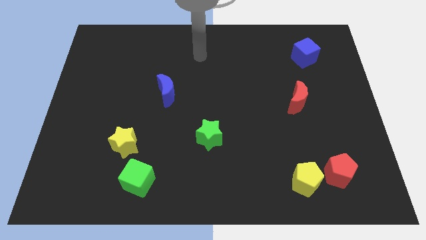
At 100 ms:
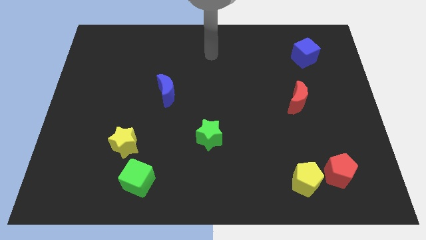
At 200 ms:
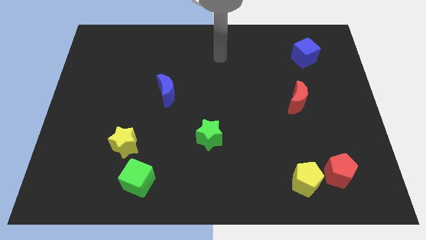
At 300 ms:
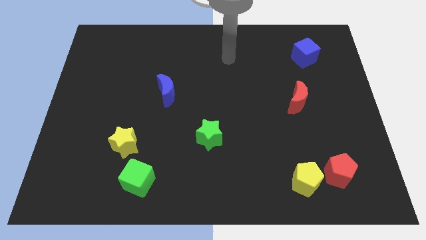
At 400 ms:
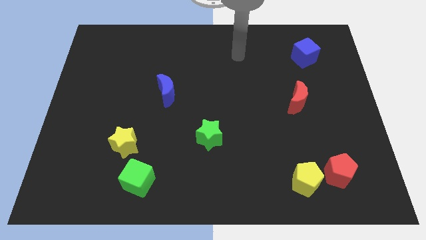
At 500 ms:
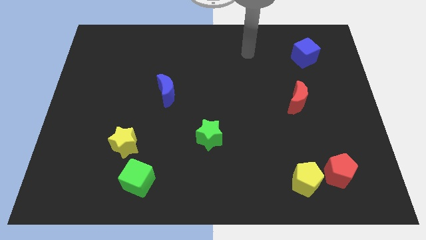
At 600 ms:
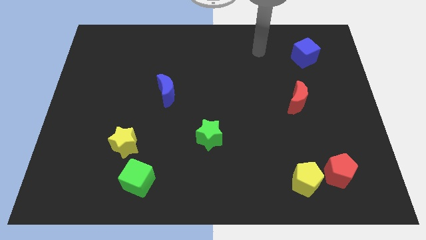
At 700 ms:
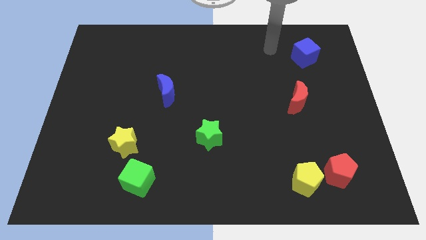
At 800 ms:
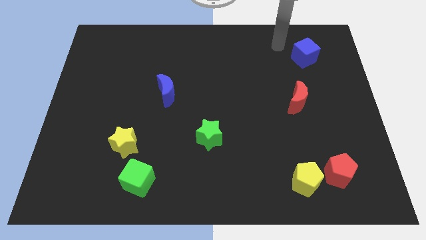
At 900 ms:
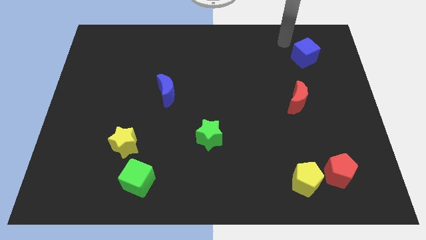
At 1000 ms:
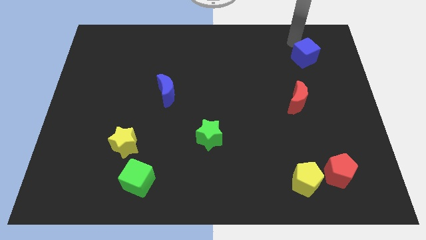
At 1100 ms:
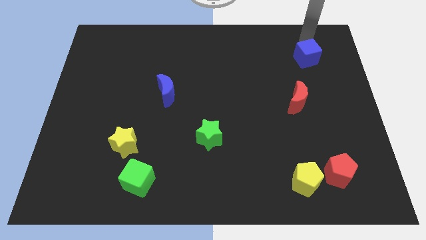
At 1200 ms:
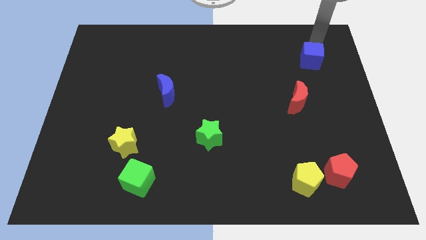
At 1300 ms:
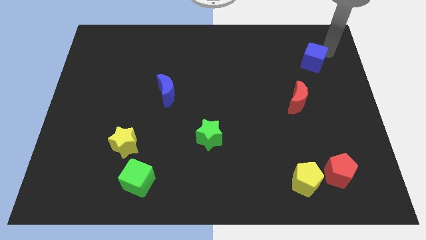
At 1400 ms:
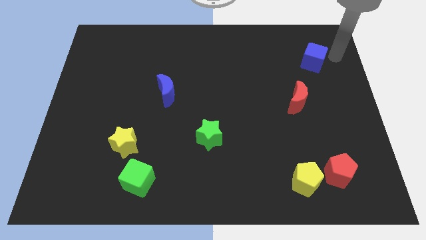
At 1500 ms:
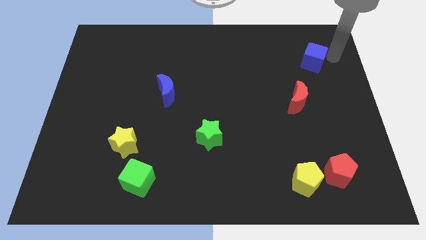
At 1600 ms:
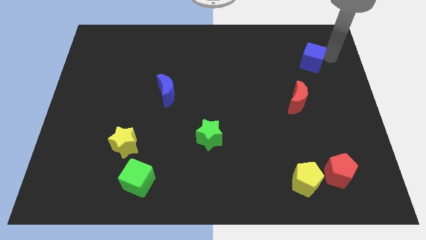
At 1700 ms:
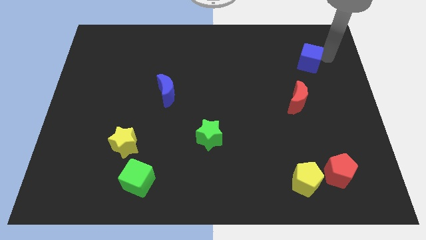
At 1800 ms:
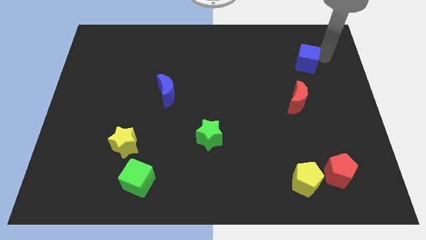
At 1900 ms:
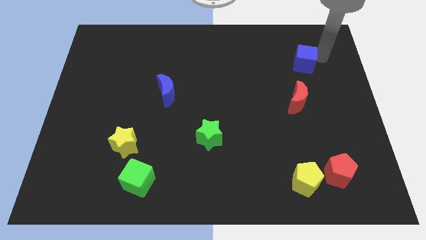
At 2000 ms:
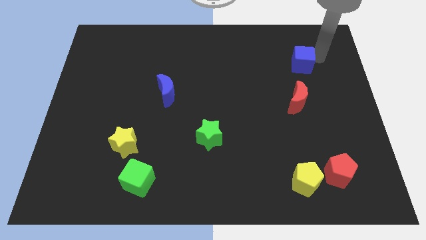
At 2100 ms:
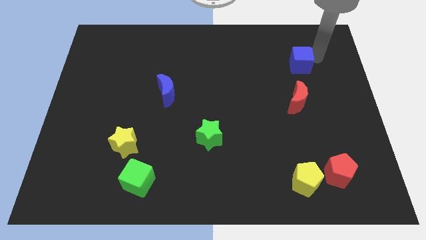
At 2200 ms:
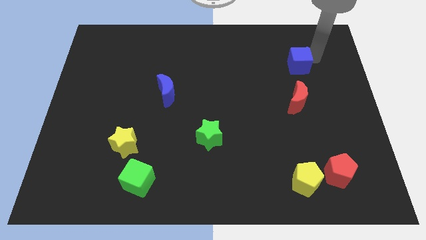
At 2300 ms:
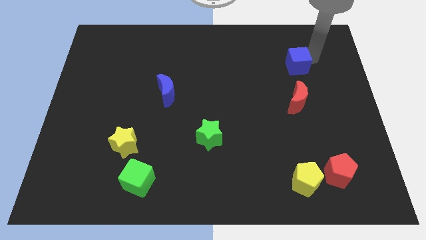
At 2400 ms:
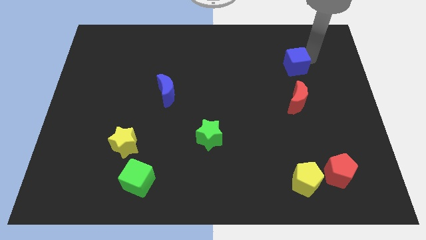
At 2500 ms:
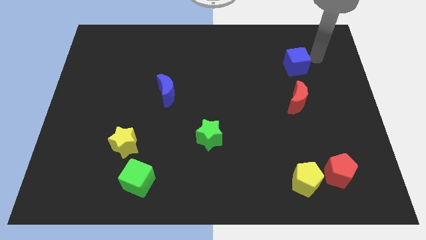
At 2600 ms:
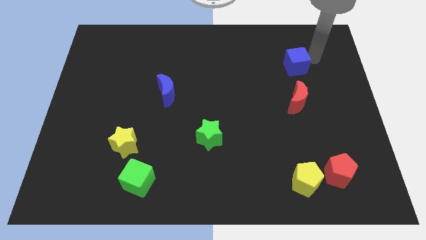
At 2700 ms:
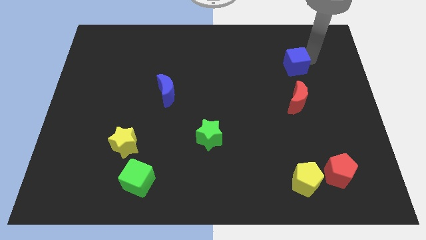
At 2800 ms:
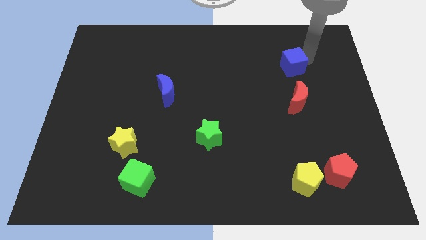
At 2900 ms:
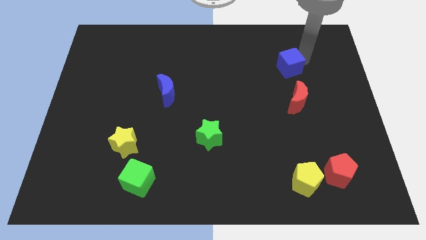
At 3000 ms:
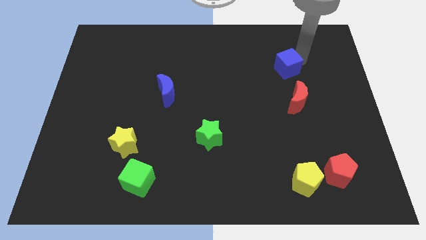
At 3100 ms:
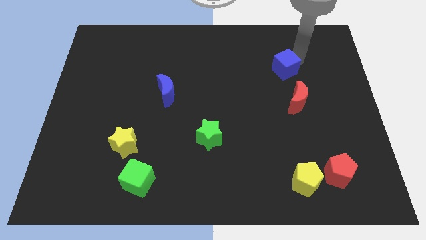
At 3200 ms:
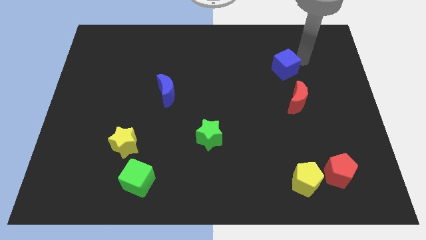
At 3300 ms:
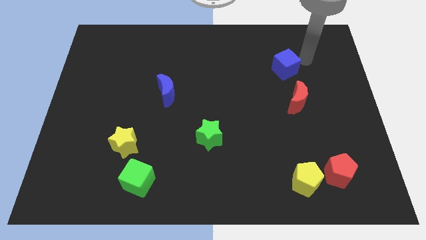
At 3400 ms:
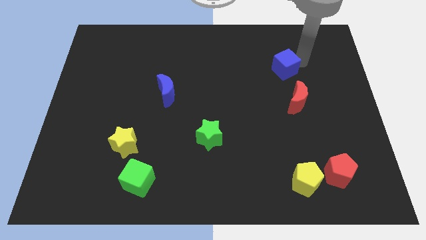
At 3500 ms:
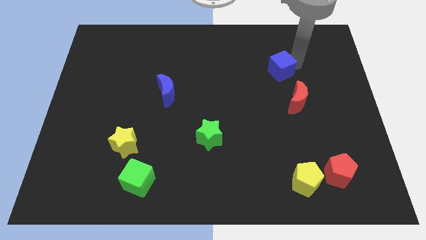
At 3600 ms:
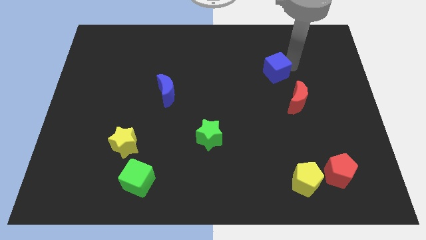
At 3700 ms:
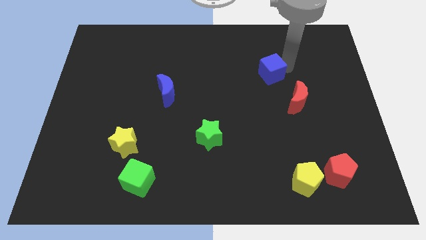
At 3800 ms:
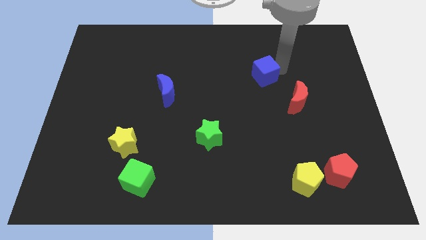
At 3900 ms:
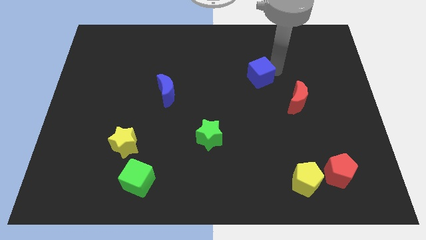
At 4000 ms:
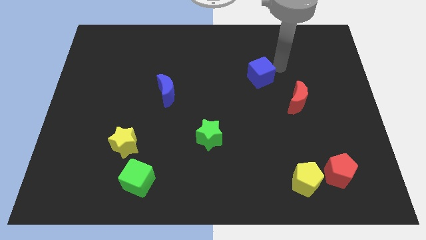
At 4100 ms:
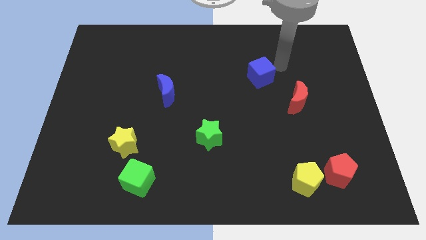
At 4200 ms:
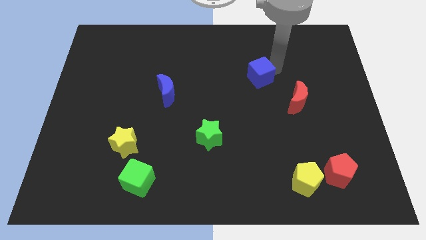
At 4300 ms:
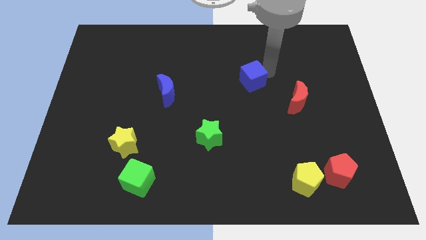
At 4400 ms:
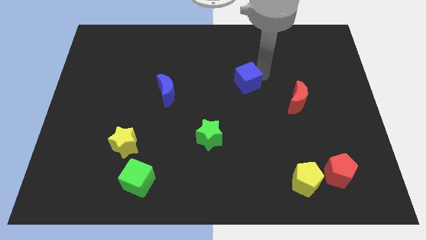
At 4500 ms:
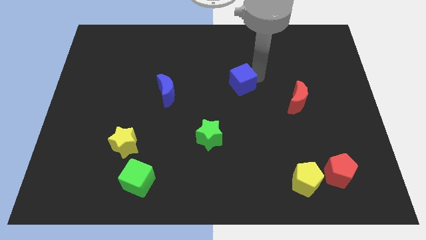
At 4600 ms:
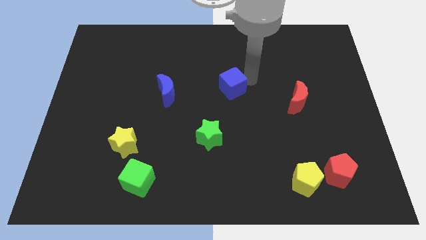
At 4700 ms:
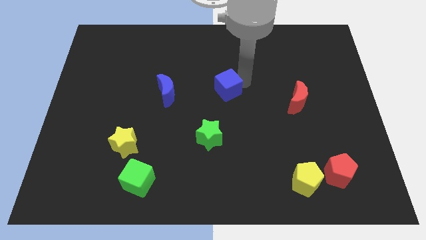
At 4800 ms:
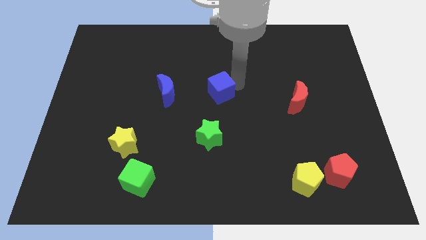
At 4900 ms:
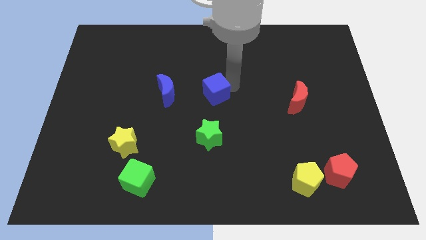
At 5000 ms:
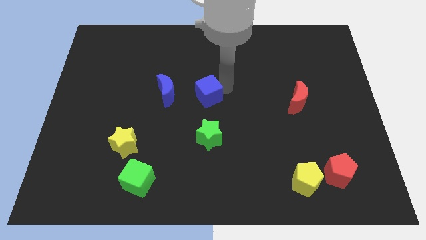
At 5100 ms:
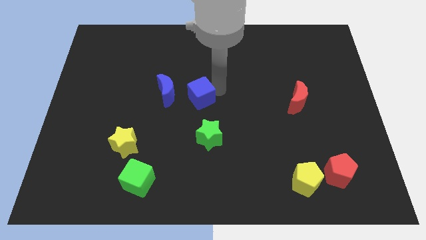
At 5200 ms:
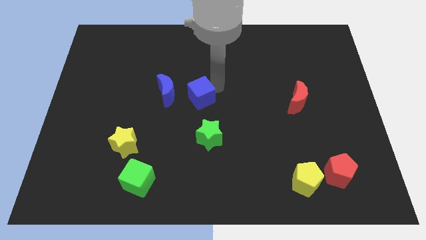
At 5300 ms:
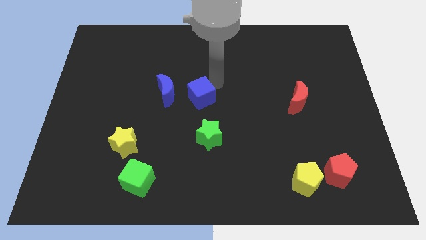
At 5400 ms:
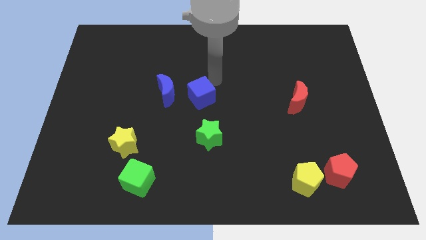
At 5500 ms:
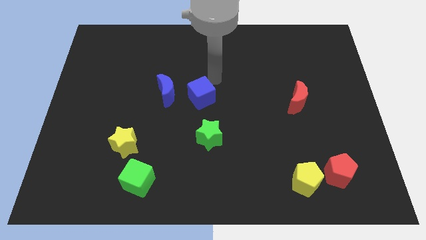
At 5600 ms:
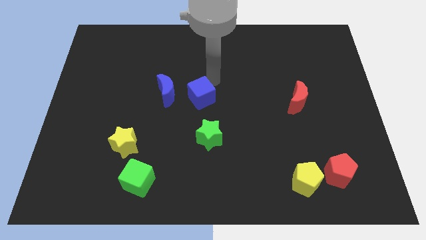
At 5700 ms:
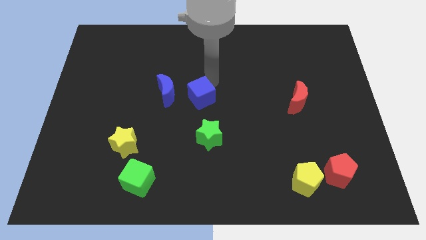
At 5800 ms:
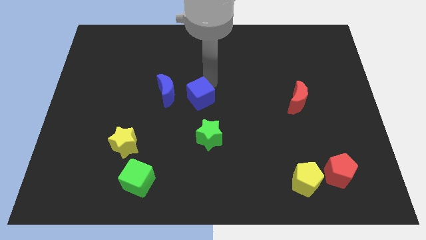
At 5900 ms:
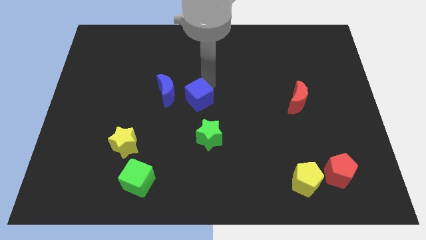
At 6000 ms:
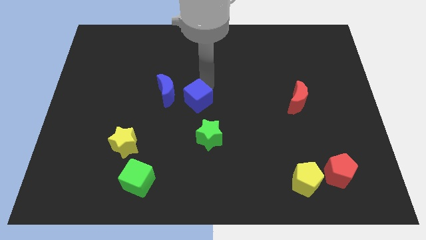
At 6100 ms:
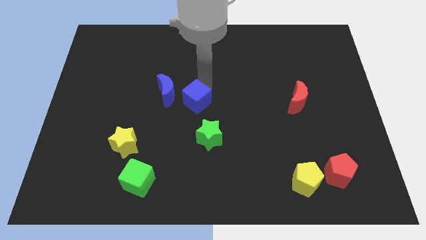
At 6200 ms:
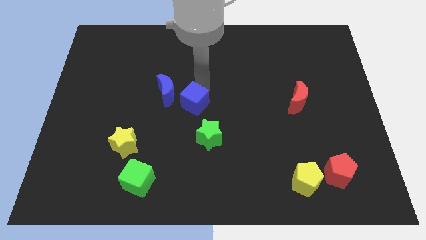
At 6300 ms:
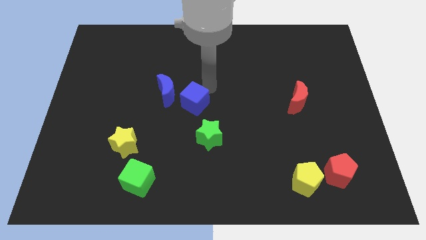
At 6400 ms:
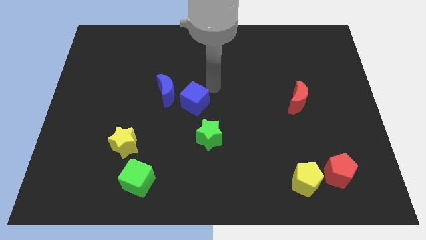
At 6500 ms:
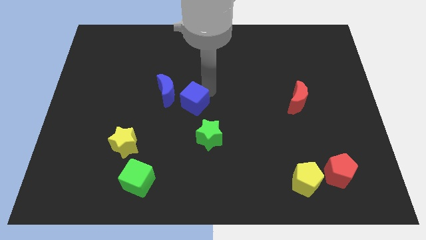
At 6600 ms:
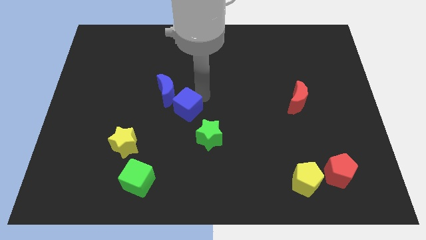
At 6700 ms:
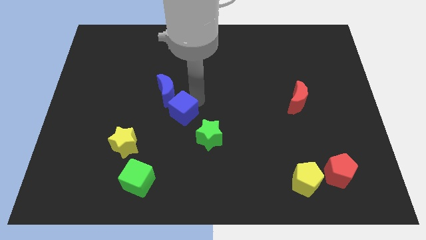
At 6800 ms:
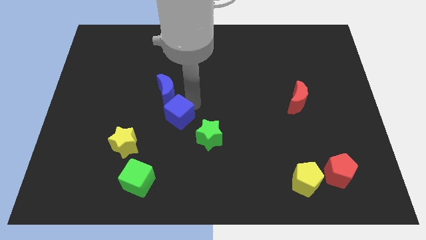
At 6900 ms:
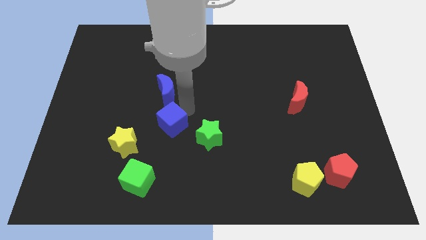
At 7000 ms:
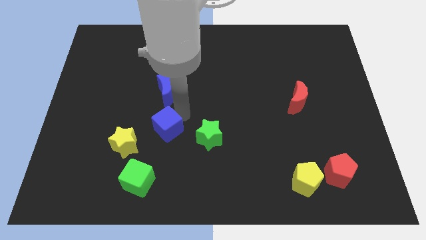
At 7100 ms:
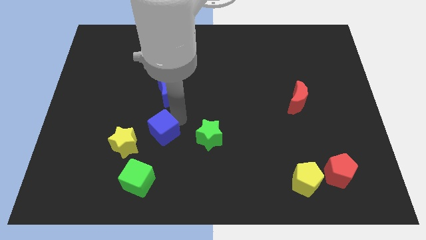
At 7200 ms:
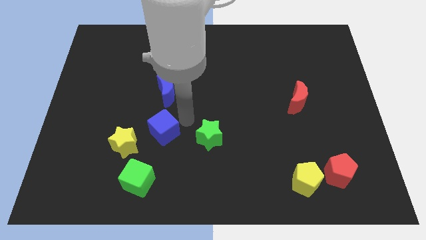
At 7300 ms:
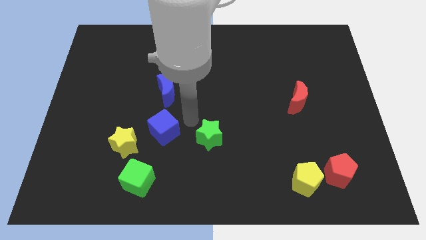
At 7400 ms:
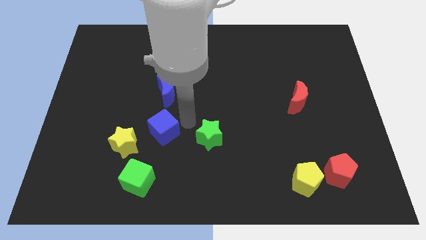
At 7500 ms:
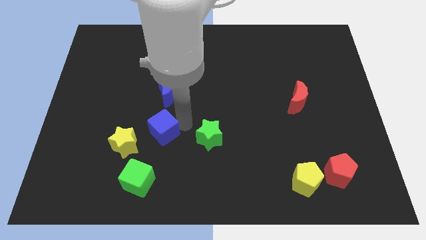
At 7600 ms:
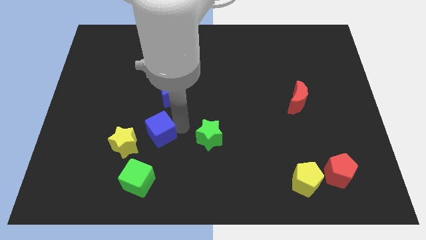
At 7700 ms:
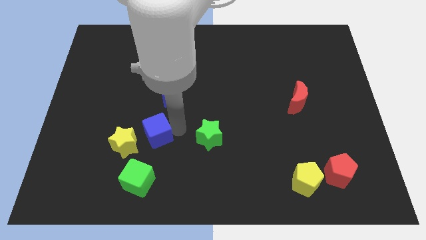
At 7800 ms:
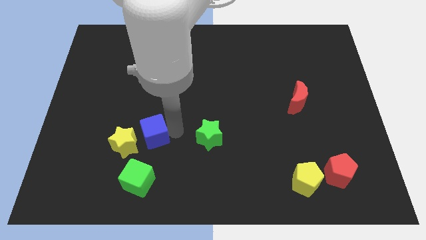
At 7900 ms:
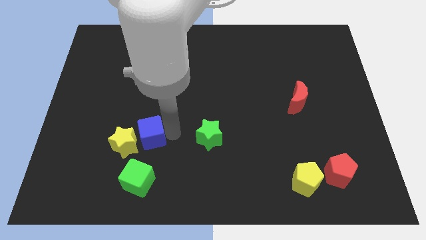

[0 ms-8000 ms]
put the blue cube close to the yellow star
